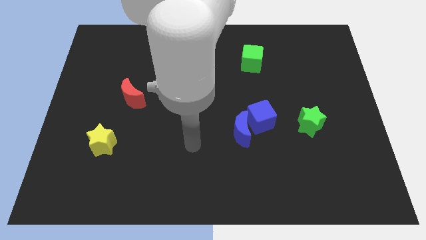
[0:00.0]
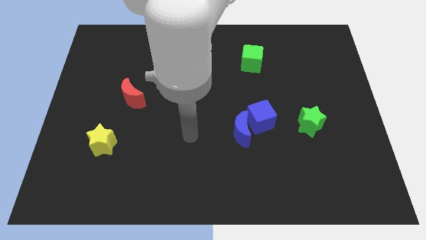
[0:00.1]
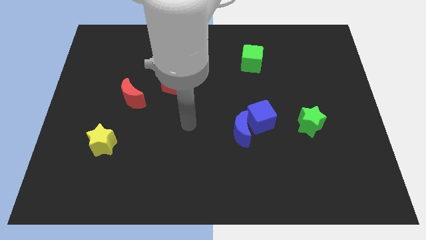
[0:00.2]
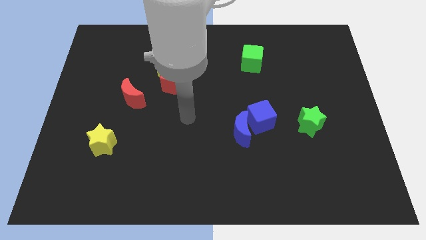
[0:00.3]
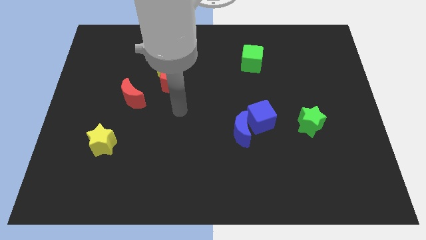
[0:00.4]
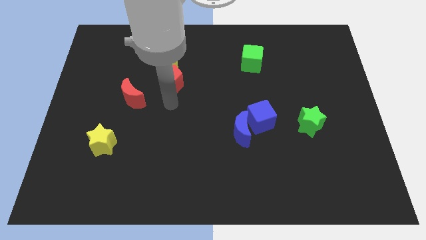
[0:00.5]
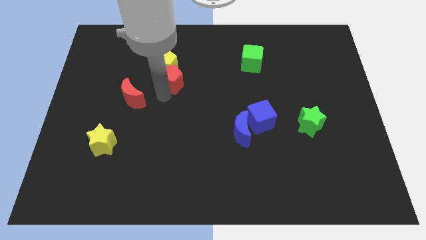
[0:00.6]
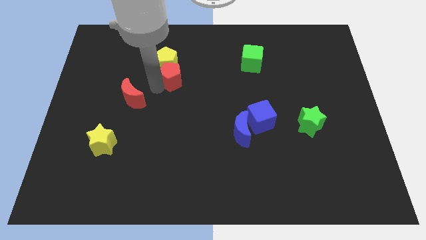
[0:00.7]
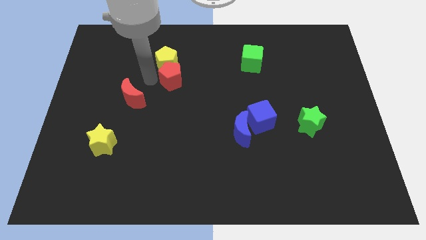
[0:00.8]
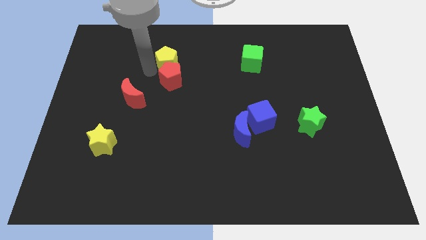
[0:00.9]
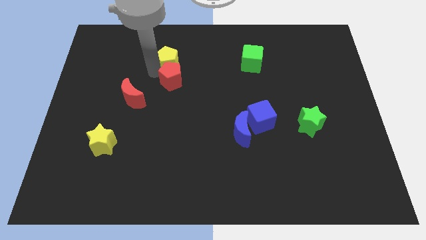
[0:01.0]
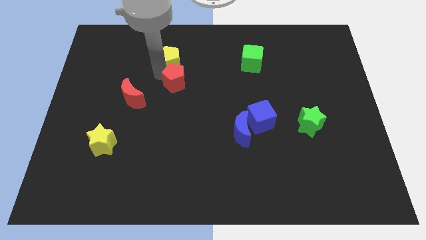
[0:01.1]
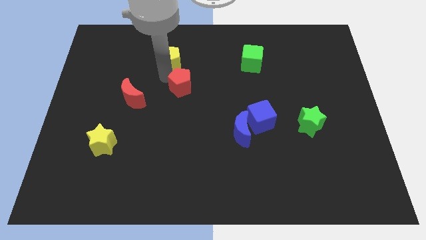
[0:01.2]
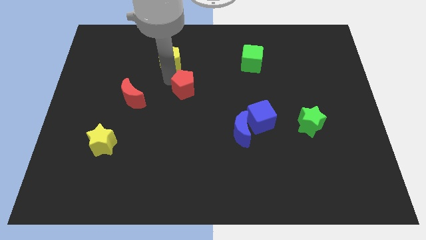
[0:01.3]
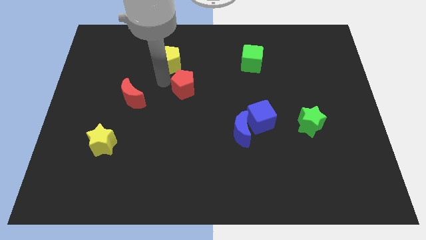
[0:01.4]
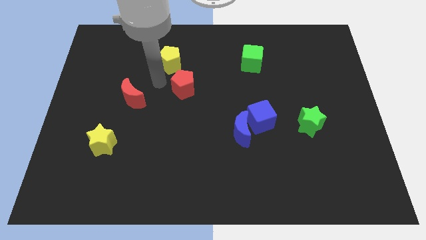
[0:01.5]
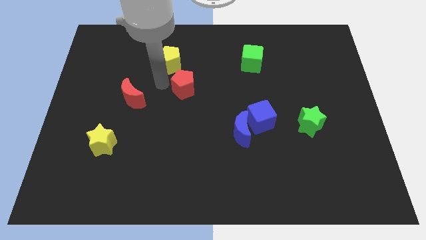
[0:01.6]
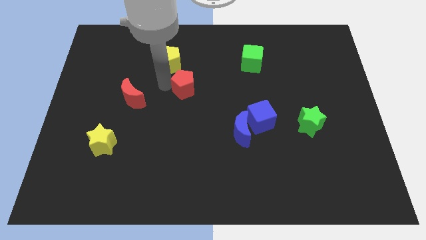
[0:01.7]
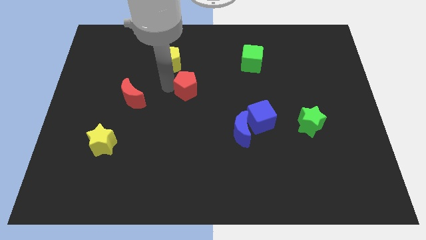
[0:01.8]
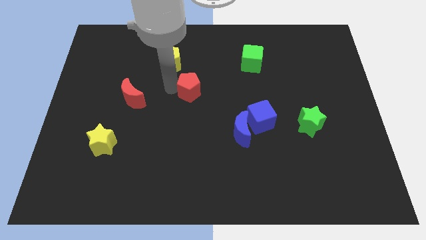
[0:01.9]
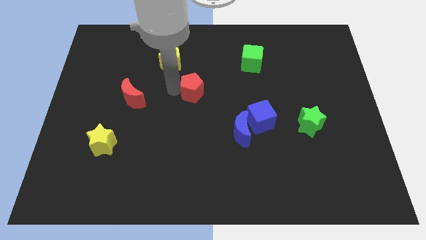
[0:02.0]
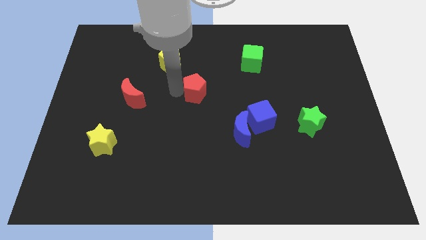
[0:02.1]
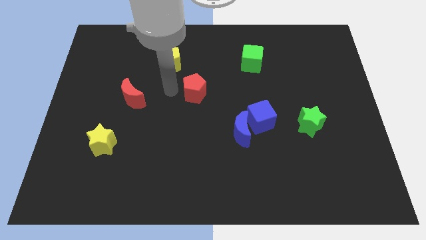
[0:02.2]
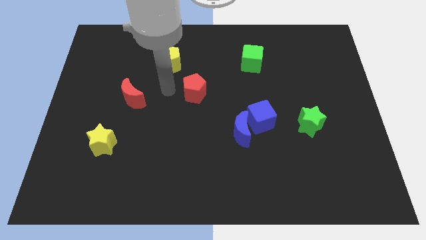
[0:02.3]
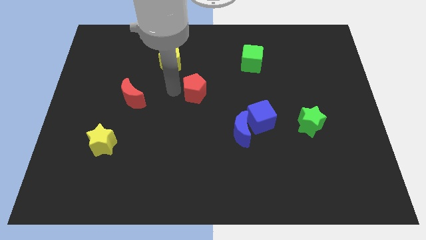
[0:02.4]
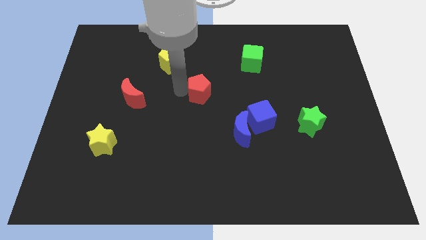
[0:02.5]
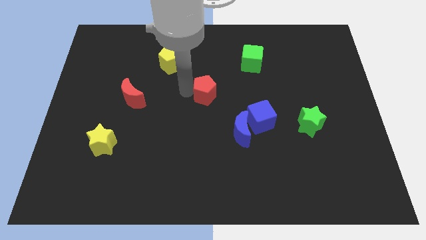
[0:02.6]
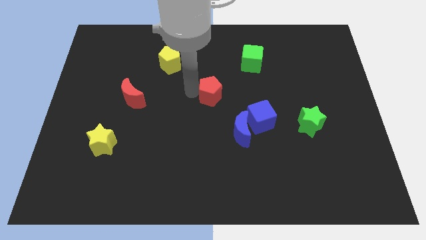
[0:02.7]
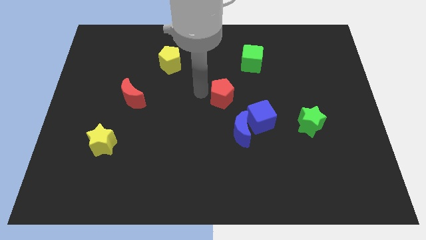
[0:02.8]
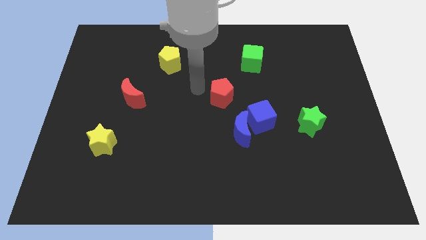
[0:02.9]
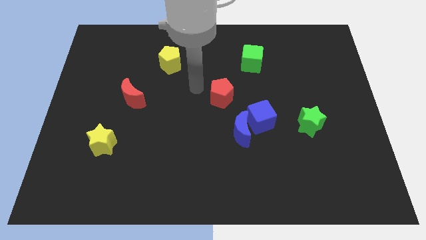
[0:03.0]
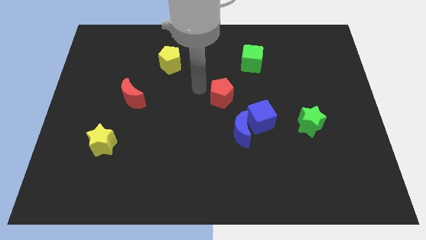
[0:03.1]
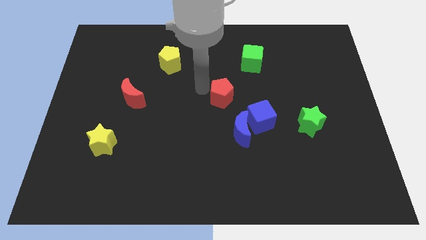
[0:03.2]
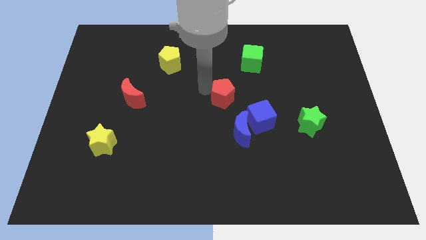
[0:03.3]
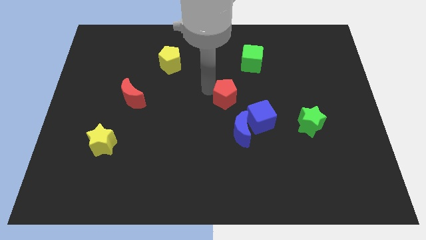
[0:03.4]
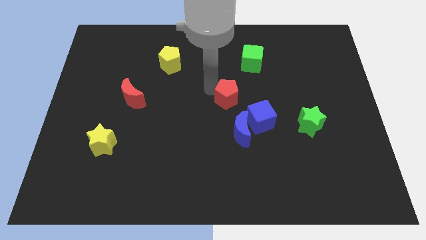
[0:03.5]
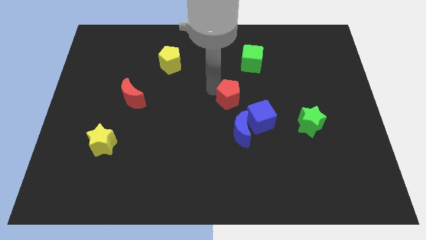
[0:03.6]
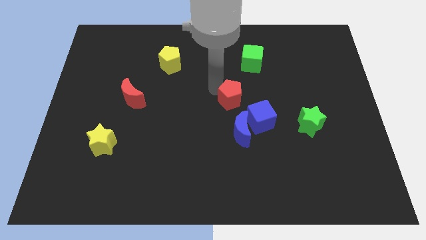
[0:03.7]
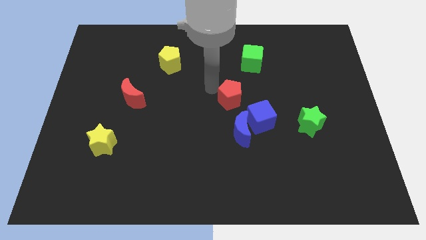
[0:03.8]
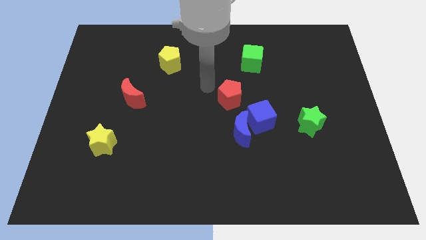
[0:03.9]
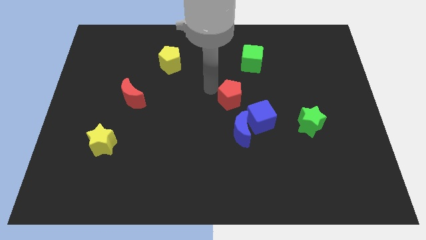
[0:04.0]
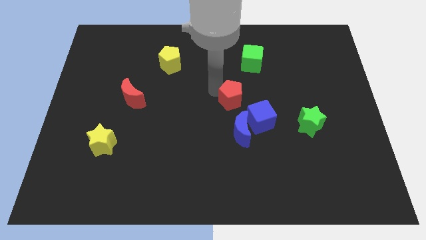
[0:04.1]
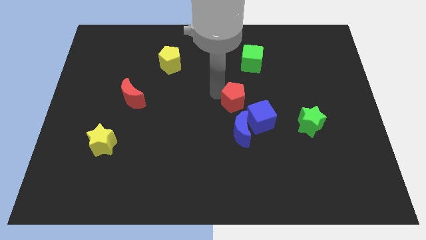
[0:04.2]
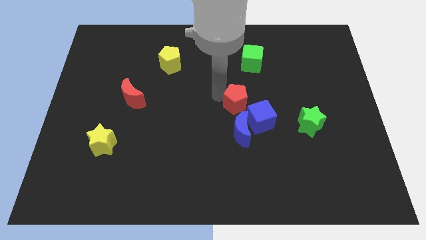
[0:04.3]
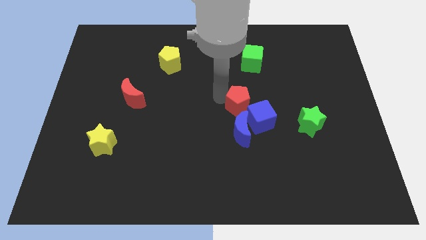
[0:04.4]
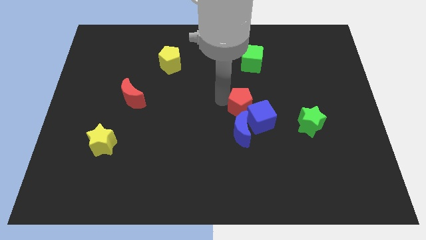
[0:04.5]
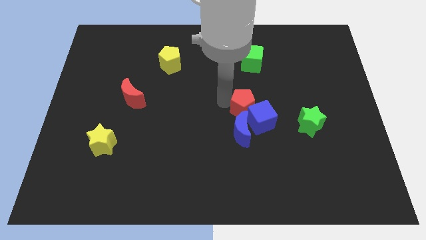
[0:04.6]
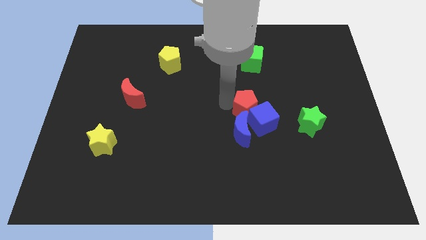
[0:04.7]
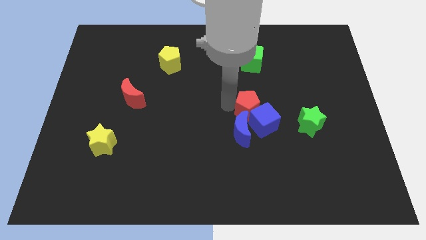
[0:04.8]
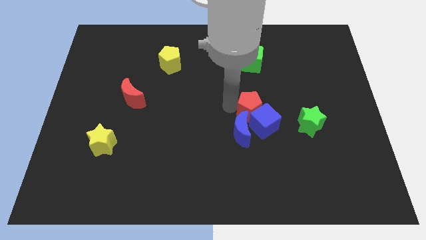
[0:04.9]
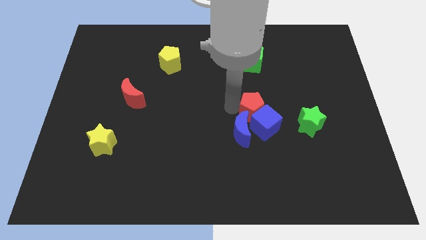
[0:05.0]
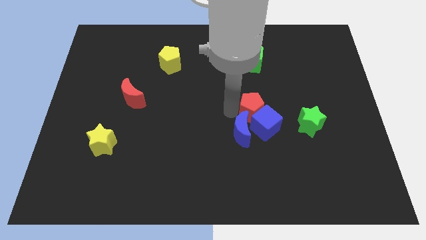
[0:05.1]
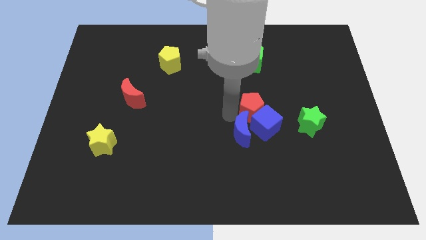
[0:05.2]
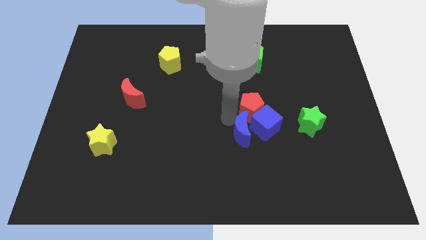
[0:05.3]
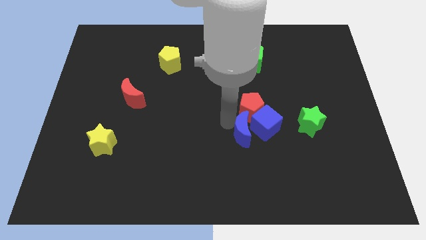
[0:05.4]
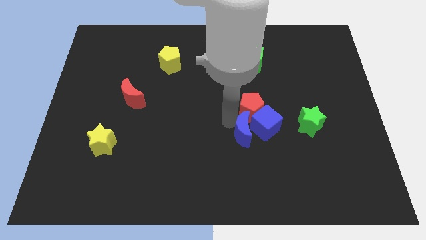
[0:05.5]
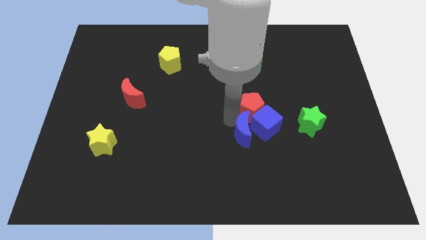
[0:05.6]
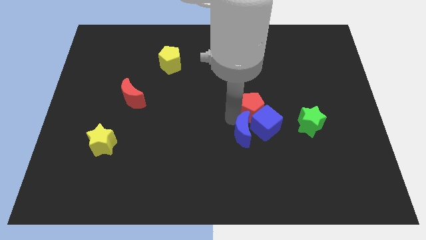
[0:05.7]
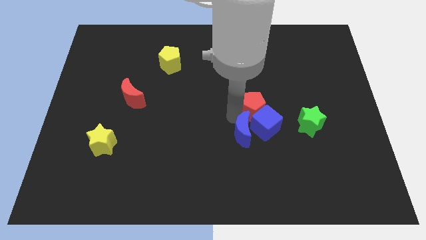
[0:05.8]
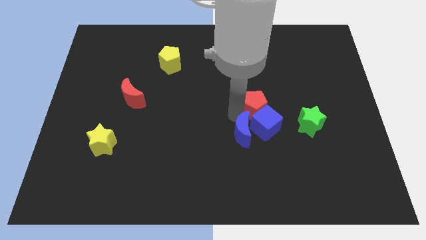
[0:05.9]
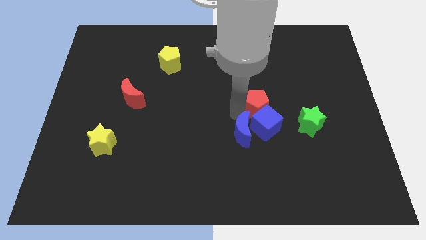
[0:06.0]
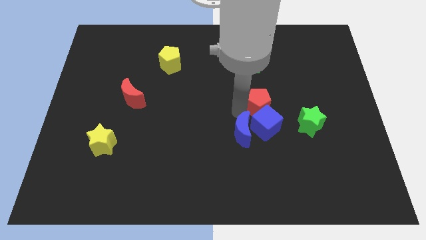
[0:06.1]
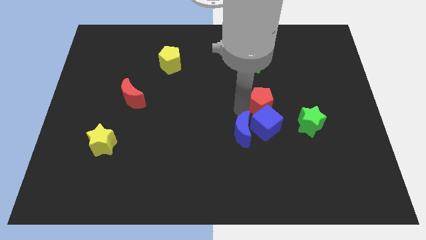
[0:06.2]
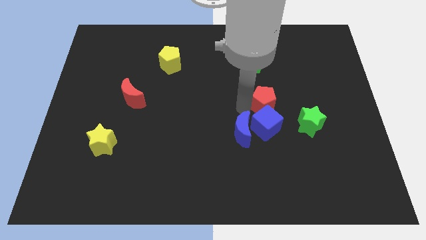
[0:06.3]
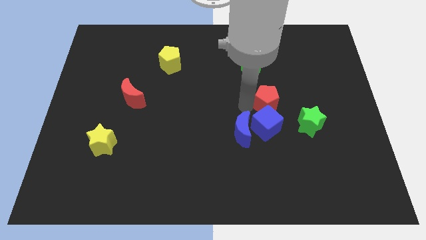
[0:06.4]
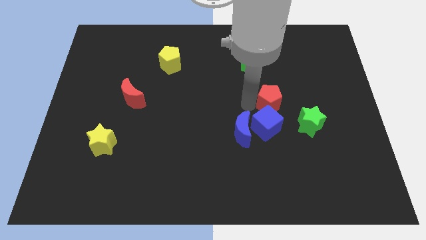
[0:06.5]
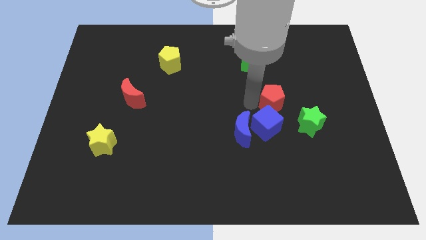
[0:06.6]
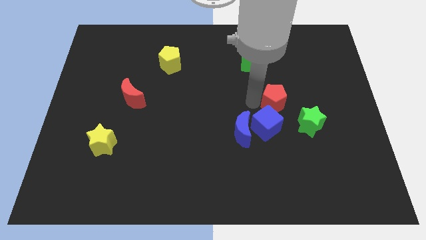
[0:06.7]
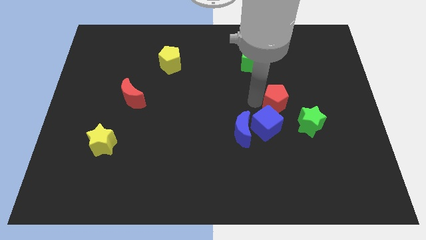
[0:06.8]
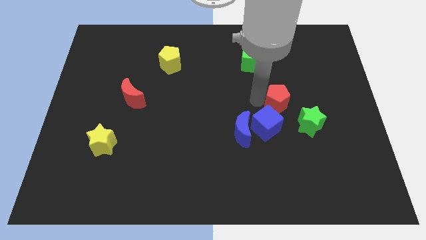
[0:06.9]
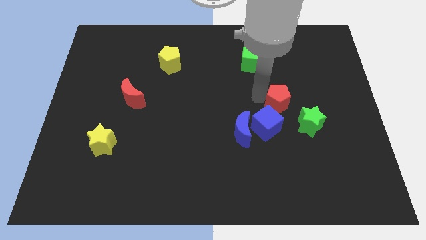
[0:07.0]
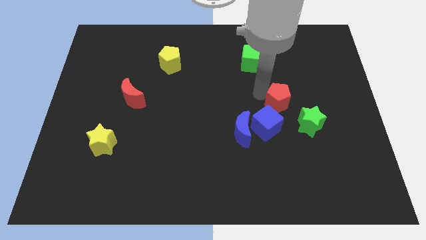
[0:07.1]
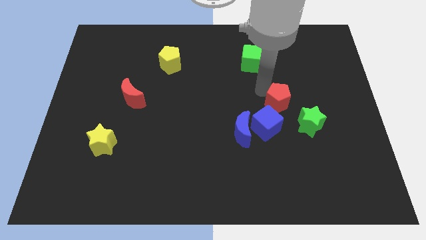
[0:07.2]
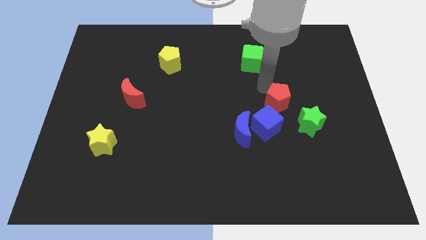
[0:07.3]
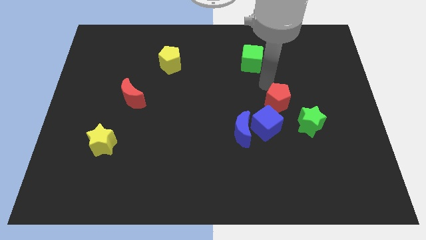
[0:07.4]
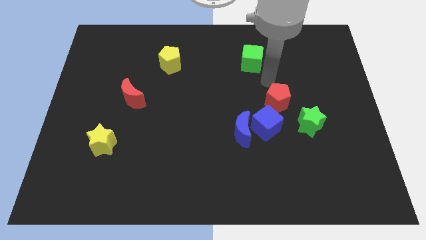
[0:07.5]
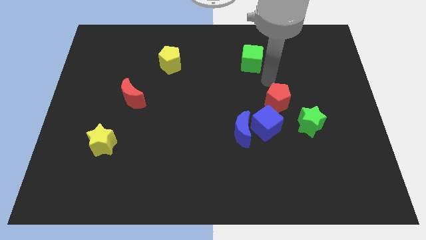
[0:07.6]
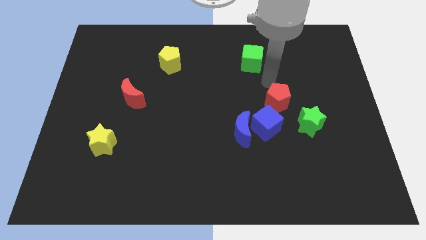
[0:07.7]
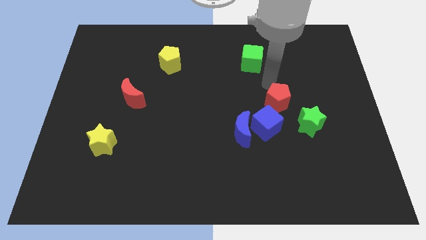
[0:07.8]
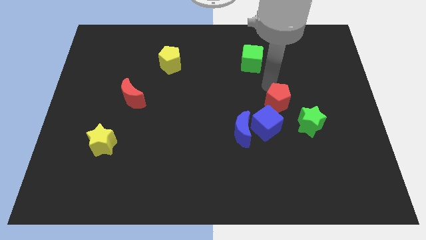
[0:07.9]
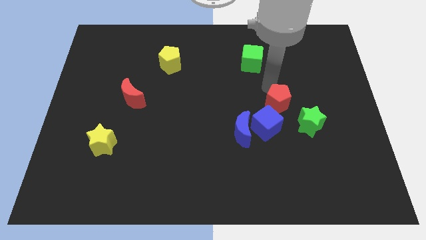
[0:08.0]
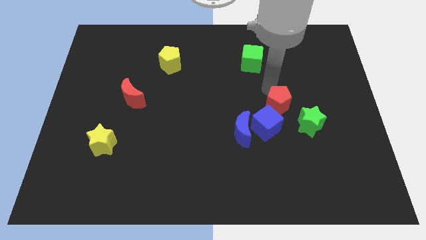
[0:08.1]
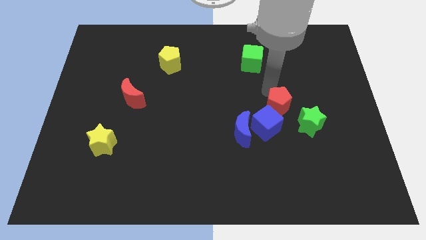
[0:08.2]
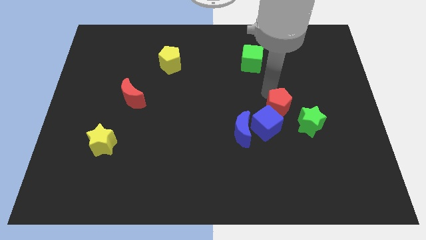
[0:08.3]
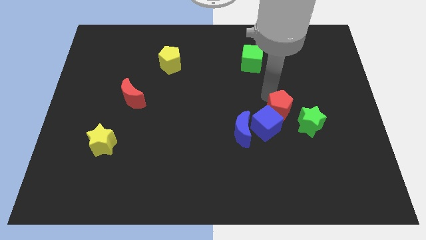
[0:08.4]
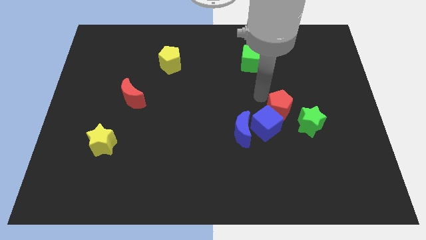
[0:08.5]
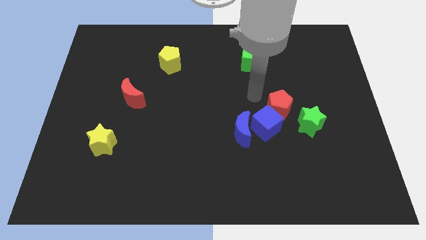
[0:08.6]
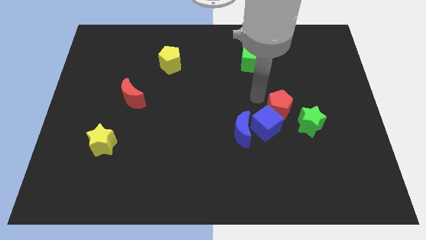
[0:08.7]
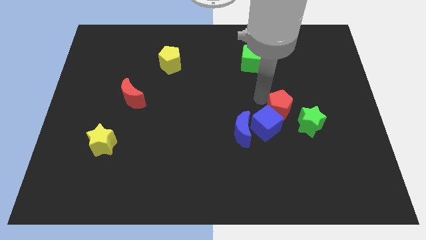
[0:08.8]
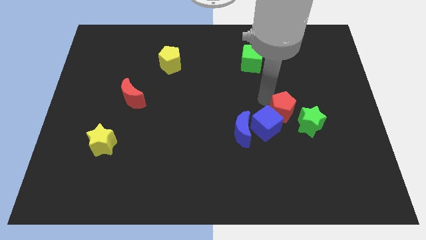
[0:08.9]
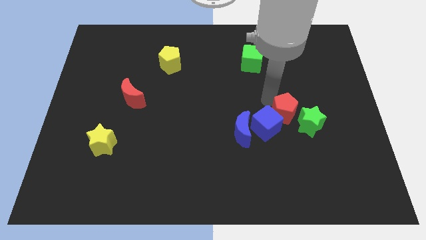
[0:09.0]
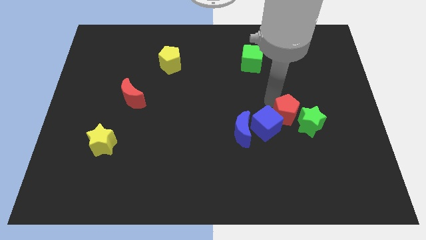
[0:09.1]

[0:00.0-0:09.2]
put the red pentagon towards the green star
